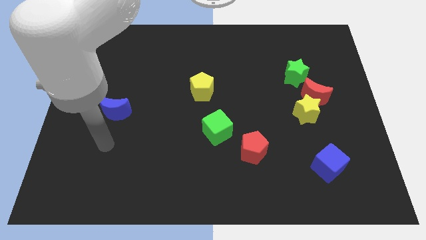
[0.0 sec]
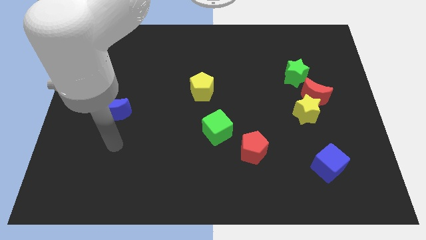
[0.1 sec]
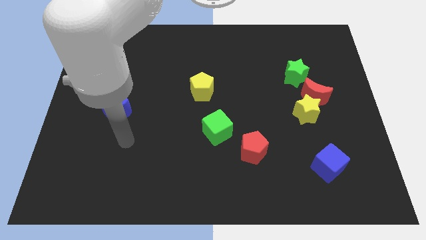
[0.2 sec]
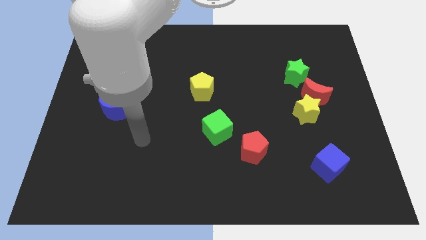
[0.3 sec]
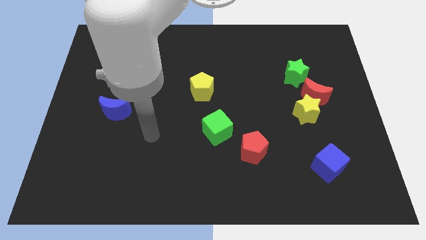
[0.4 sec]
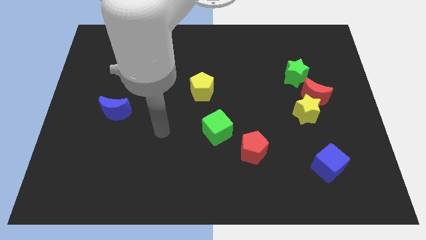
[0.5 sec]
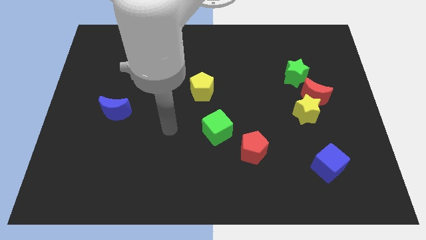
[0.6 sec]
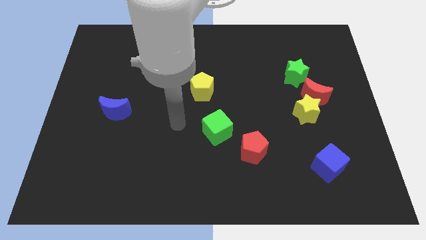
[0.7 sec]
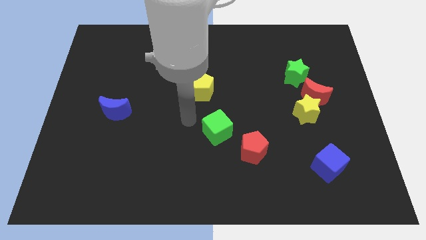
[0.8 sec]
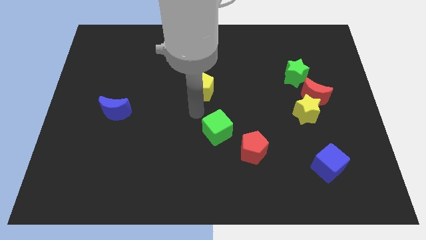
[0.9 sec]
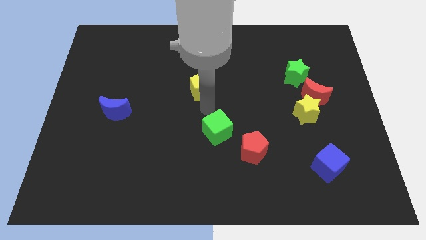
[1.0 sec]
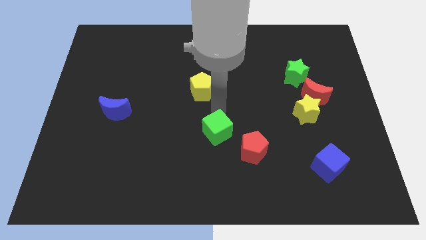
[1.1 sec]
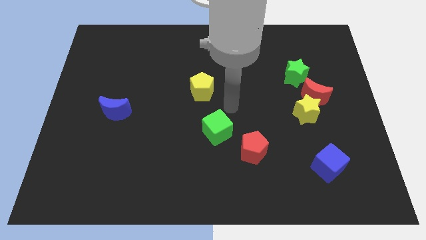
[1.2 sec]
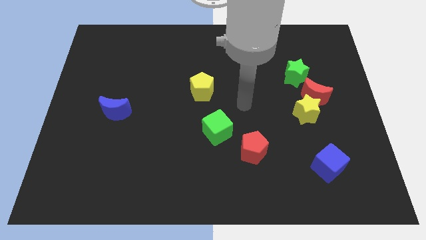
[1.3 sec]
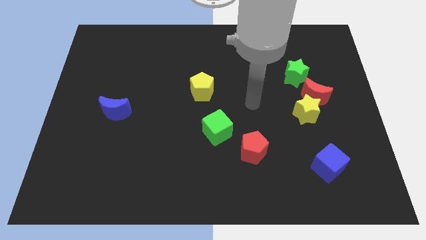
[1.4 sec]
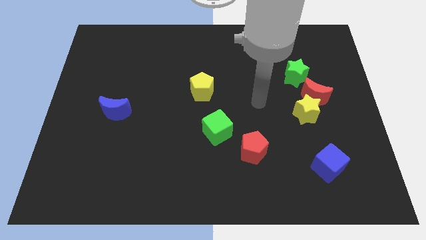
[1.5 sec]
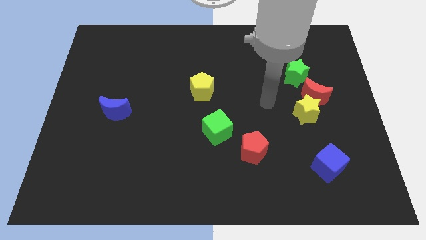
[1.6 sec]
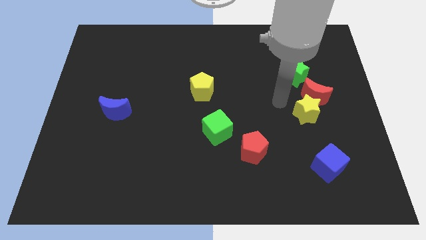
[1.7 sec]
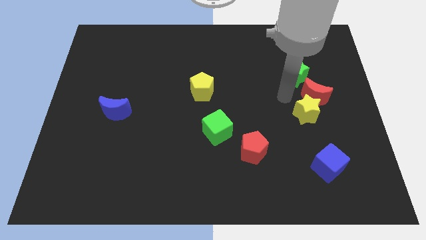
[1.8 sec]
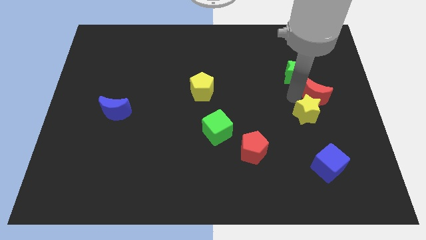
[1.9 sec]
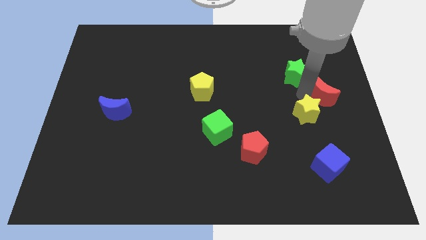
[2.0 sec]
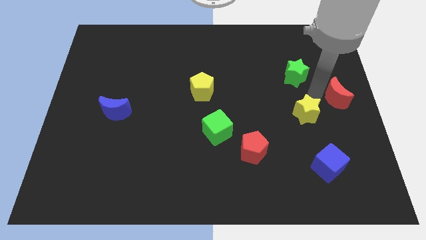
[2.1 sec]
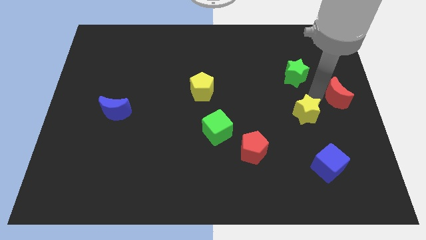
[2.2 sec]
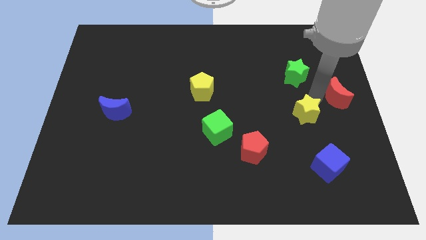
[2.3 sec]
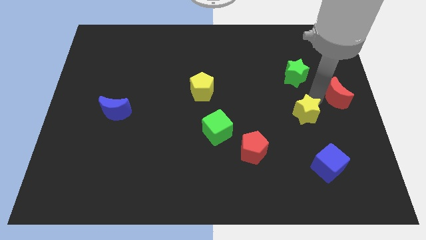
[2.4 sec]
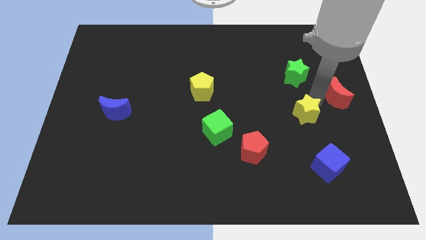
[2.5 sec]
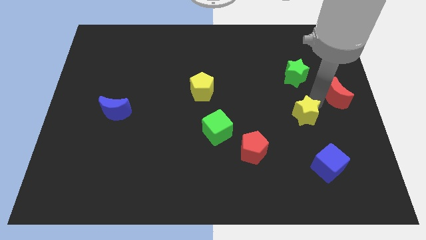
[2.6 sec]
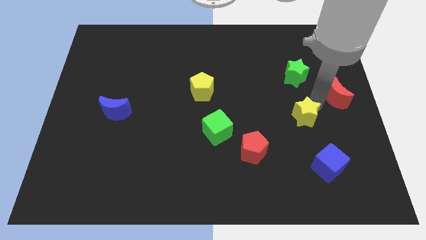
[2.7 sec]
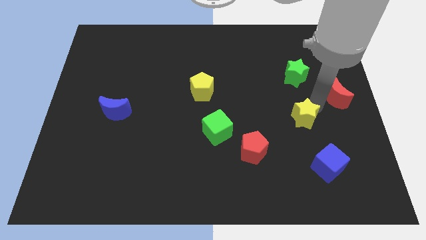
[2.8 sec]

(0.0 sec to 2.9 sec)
pull the yellow star apart from the red moon

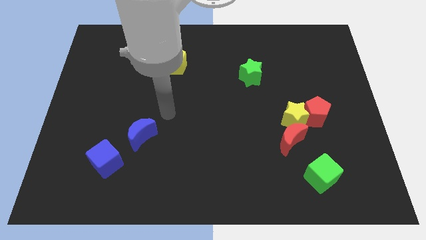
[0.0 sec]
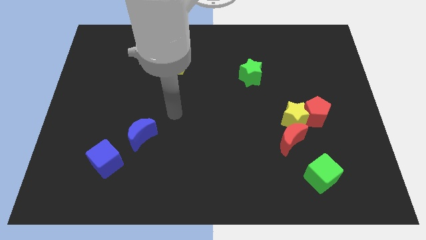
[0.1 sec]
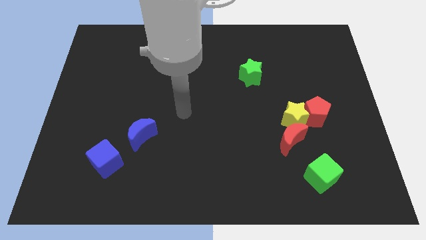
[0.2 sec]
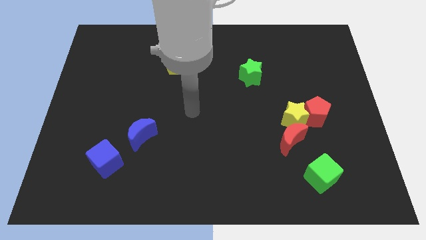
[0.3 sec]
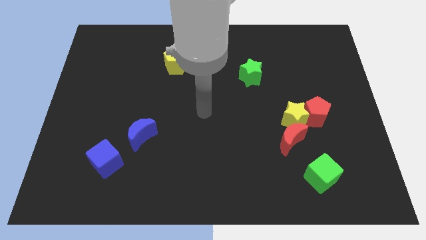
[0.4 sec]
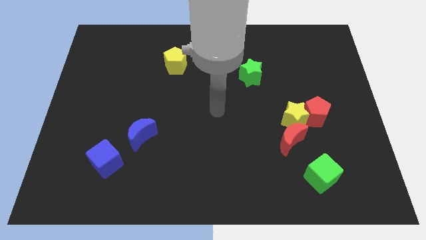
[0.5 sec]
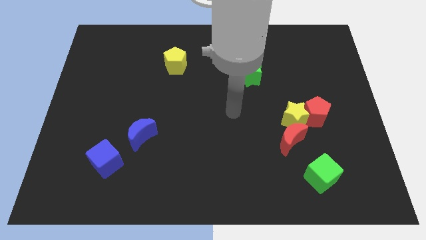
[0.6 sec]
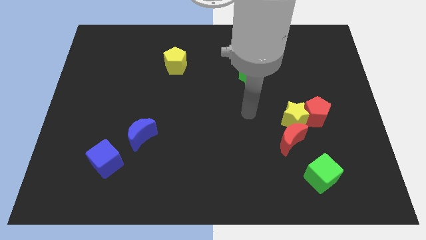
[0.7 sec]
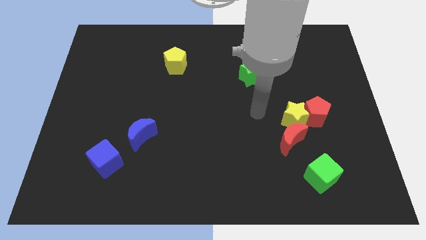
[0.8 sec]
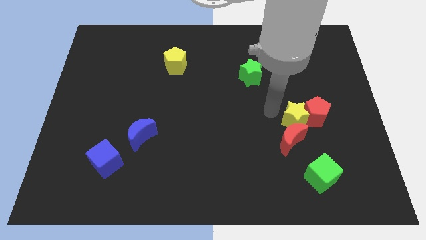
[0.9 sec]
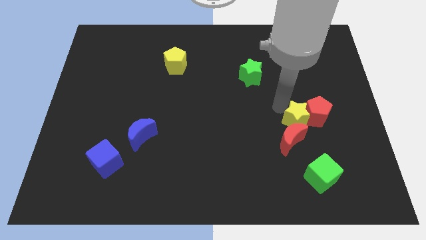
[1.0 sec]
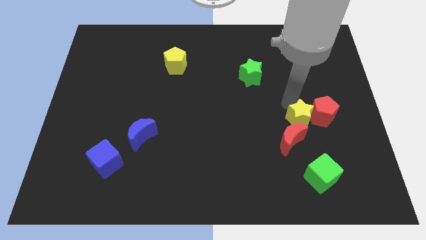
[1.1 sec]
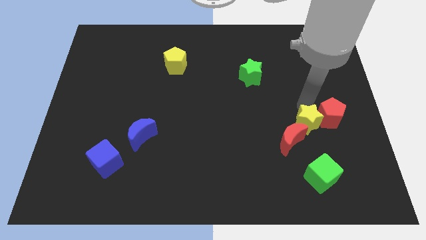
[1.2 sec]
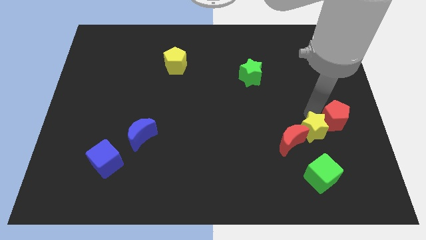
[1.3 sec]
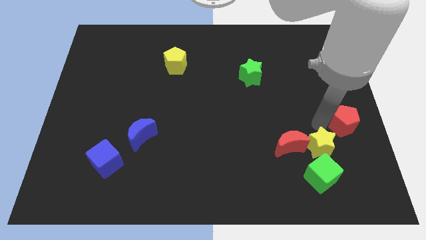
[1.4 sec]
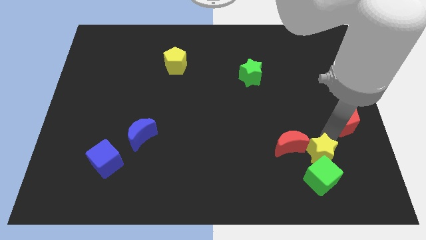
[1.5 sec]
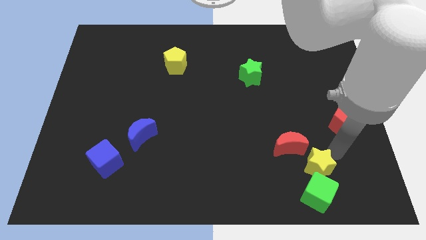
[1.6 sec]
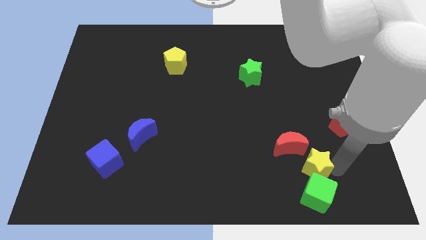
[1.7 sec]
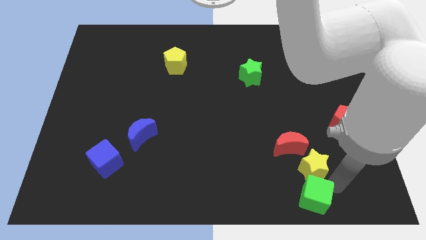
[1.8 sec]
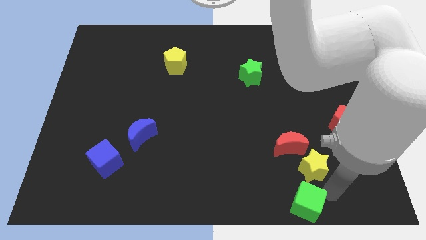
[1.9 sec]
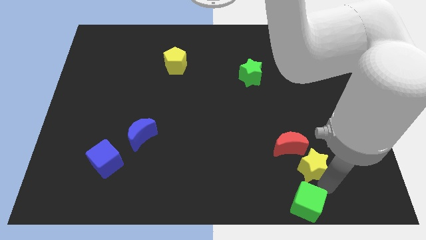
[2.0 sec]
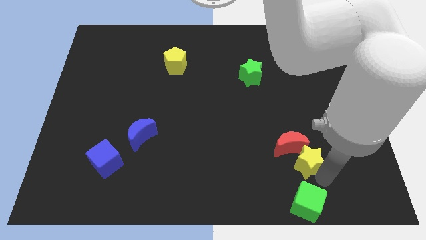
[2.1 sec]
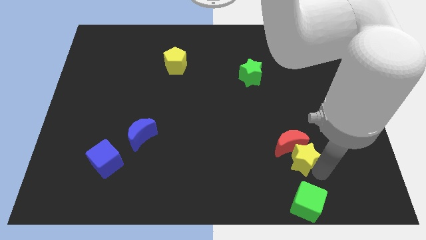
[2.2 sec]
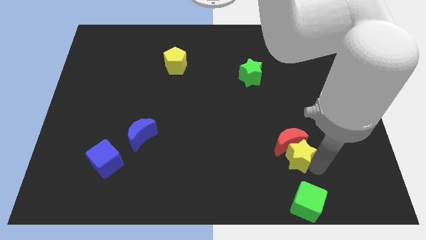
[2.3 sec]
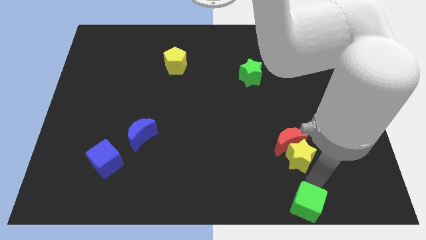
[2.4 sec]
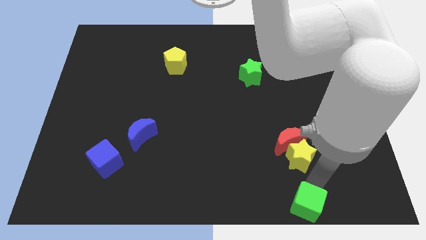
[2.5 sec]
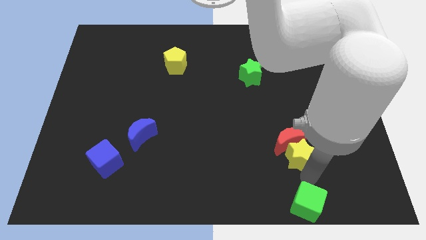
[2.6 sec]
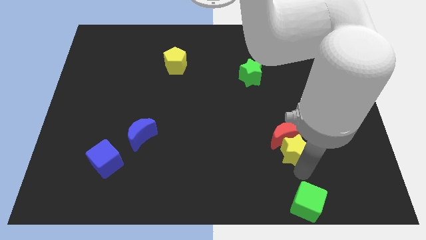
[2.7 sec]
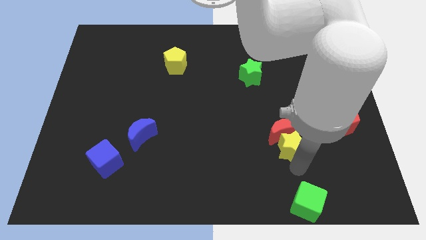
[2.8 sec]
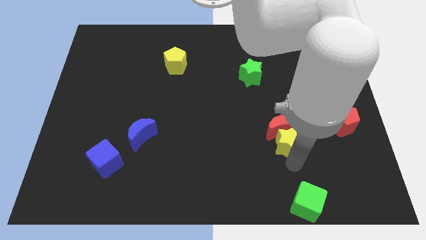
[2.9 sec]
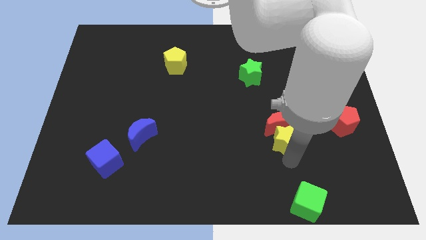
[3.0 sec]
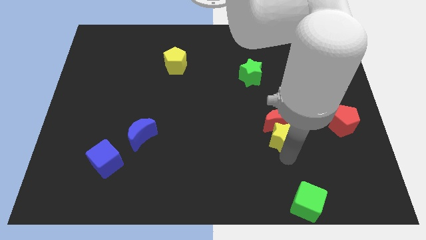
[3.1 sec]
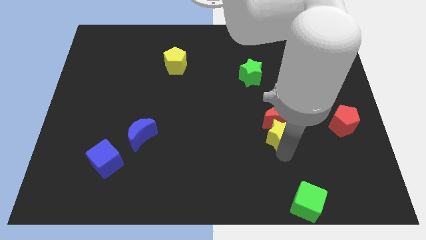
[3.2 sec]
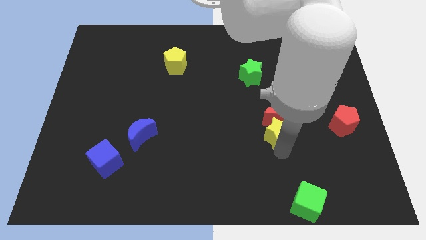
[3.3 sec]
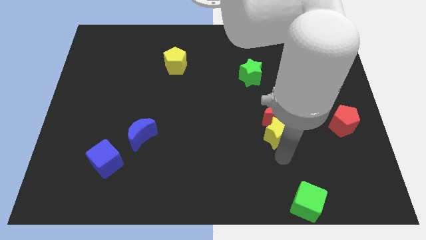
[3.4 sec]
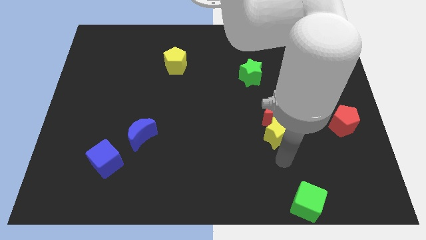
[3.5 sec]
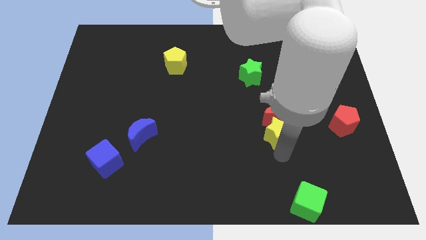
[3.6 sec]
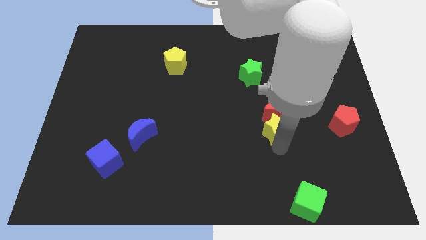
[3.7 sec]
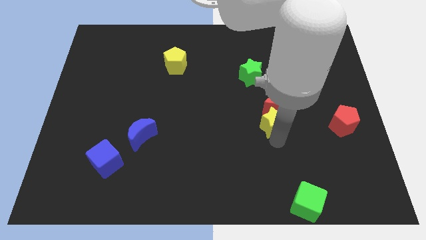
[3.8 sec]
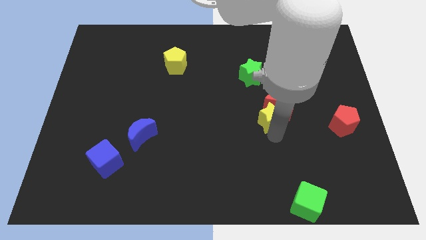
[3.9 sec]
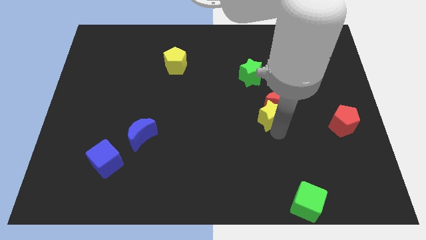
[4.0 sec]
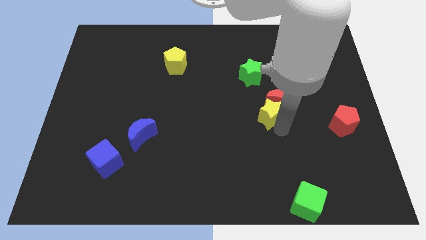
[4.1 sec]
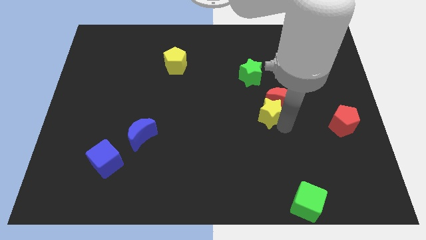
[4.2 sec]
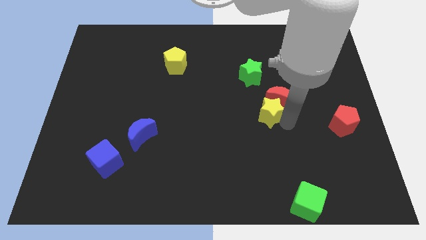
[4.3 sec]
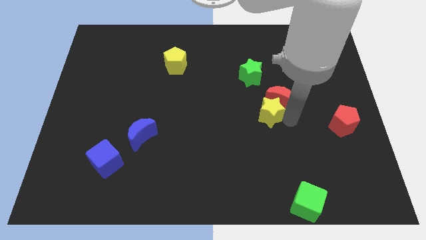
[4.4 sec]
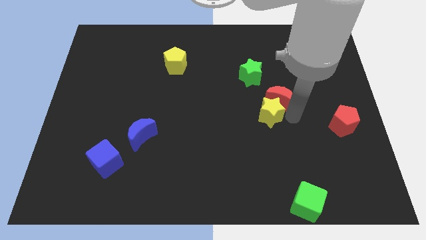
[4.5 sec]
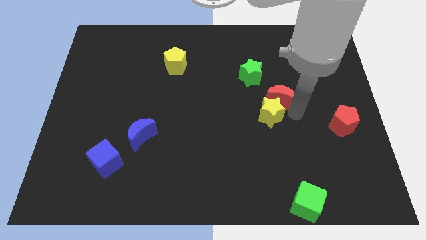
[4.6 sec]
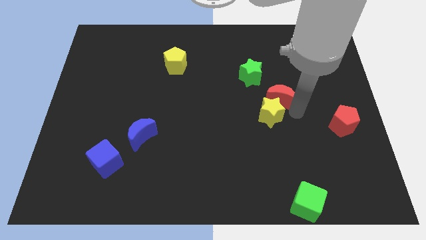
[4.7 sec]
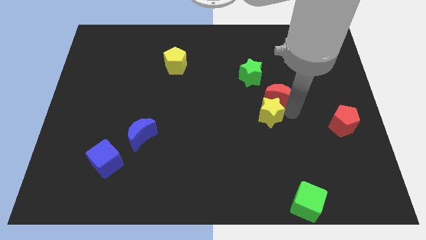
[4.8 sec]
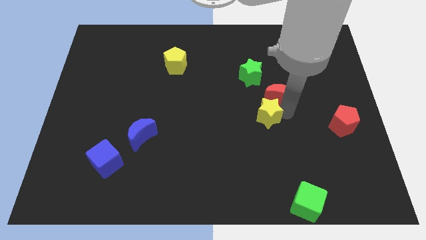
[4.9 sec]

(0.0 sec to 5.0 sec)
move the yellow star away from the red pentagon and red moon

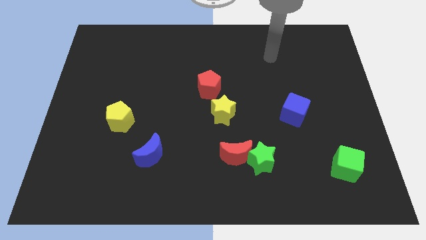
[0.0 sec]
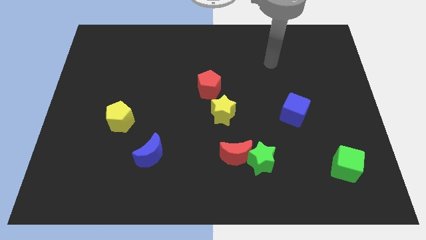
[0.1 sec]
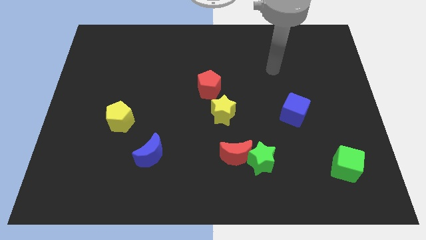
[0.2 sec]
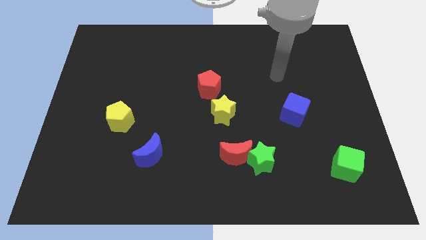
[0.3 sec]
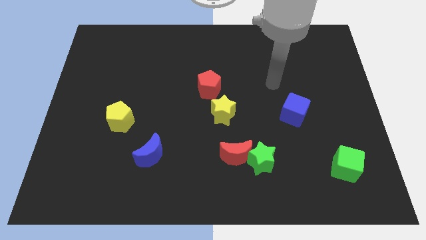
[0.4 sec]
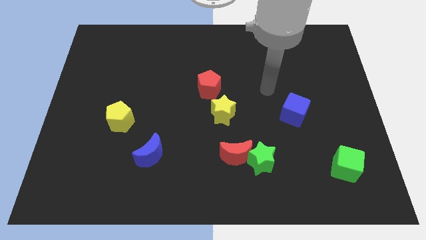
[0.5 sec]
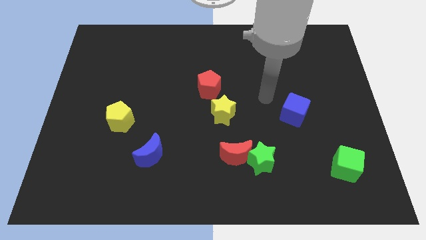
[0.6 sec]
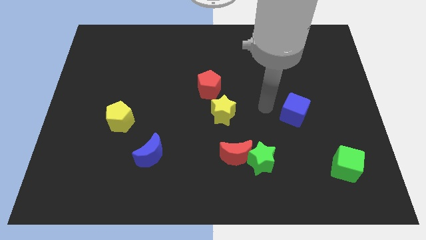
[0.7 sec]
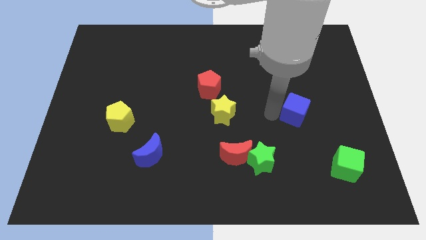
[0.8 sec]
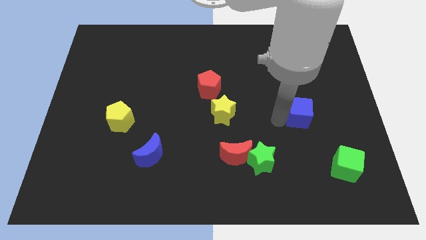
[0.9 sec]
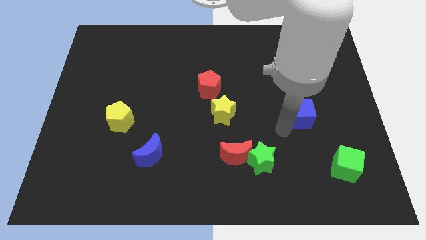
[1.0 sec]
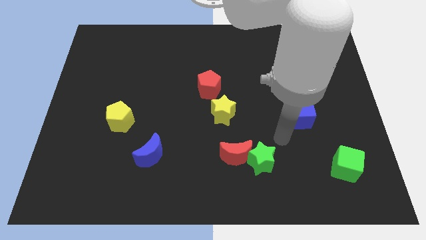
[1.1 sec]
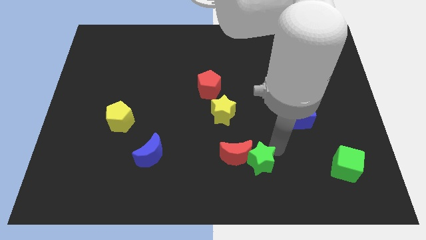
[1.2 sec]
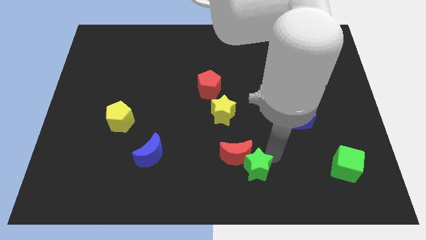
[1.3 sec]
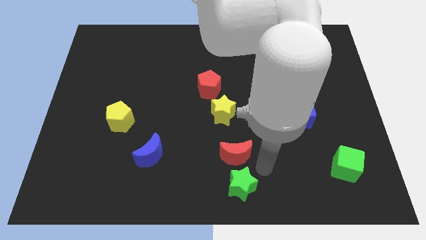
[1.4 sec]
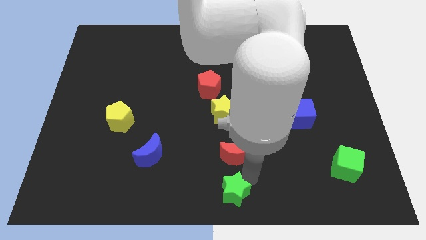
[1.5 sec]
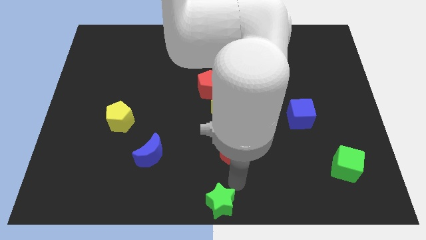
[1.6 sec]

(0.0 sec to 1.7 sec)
move the red moon away from the green star
